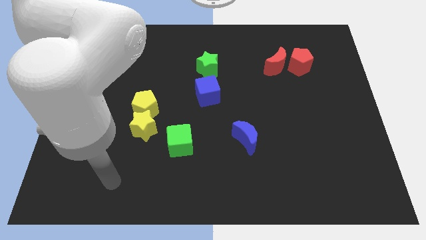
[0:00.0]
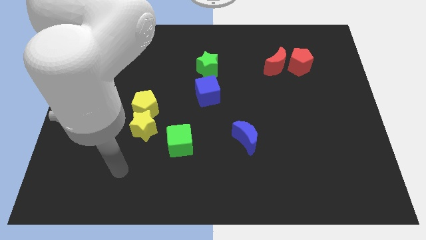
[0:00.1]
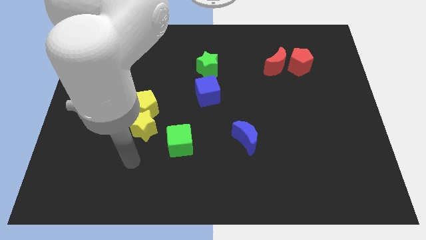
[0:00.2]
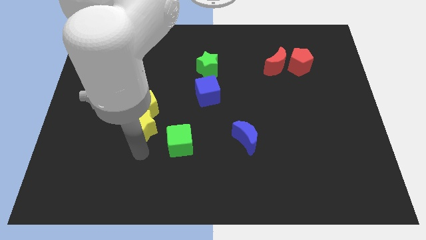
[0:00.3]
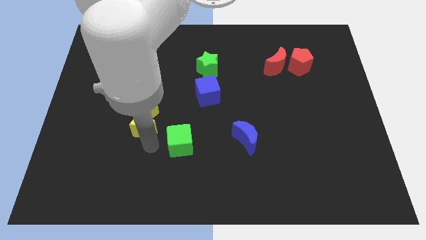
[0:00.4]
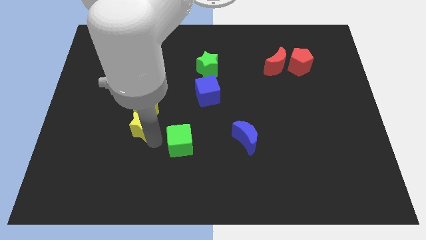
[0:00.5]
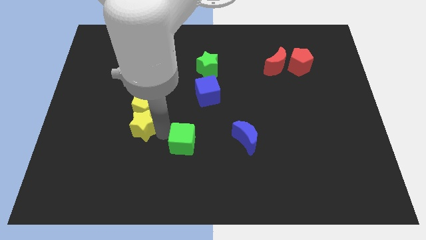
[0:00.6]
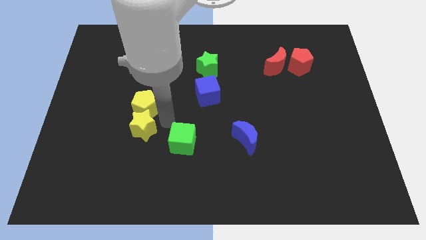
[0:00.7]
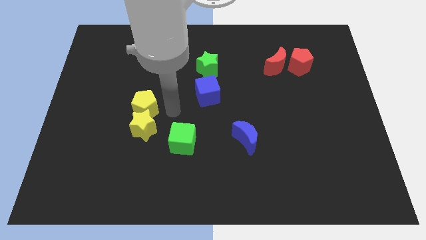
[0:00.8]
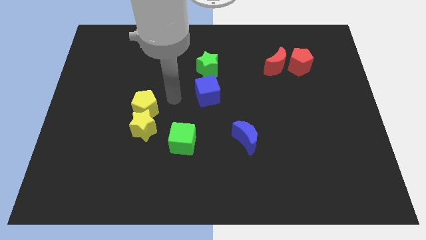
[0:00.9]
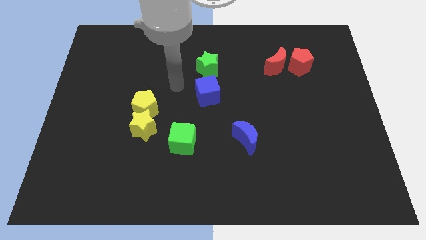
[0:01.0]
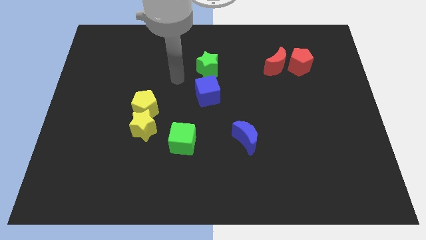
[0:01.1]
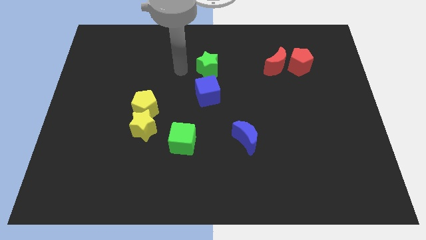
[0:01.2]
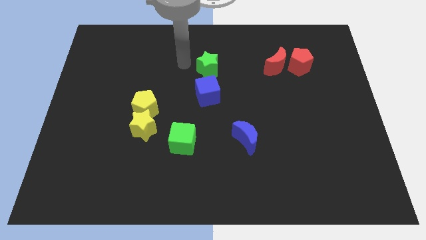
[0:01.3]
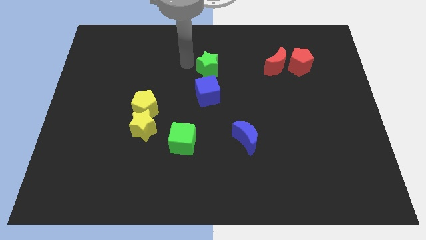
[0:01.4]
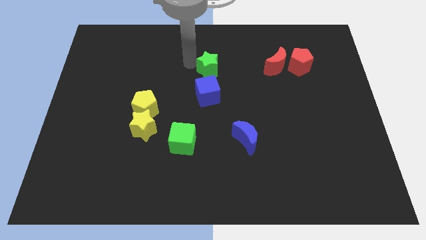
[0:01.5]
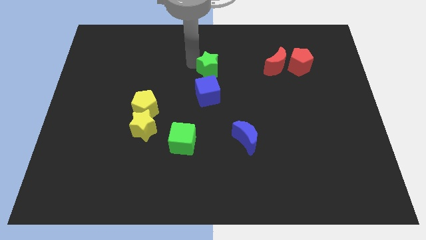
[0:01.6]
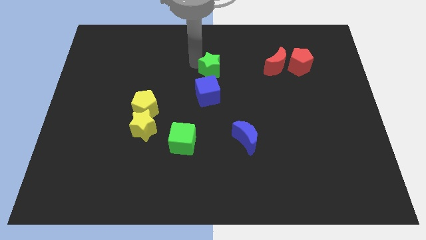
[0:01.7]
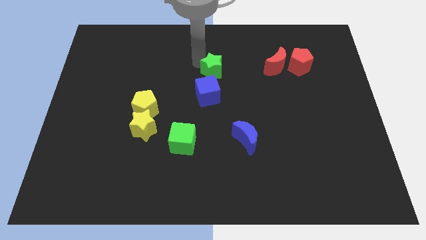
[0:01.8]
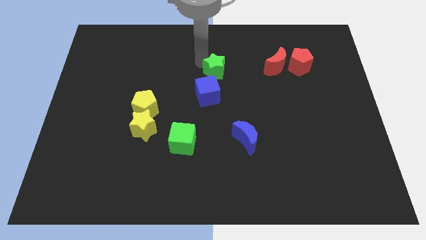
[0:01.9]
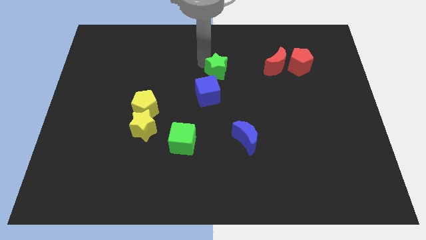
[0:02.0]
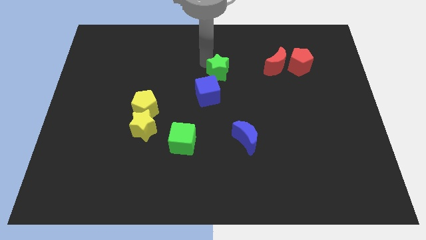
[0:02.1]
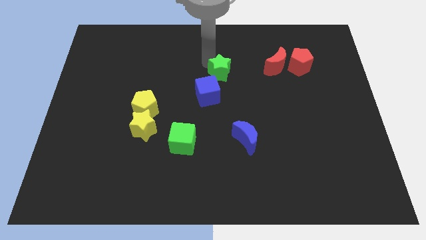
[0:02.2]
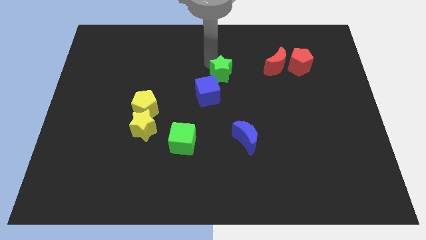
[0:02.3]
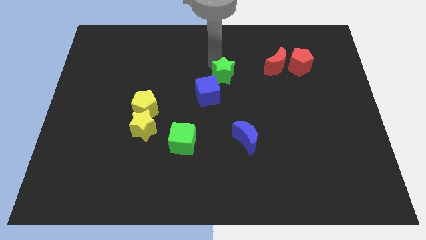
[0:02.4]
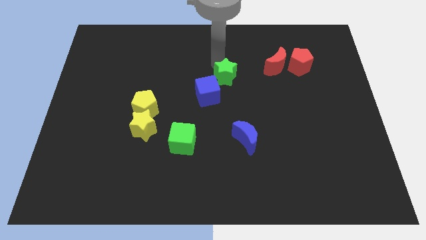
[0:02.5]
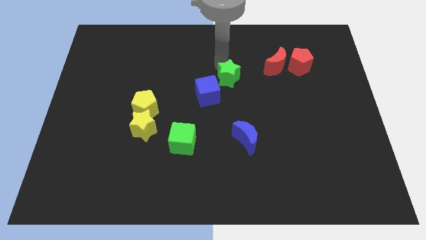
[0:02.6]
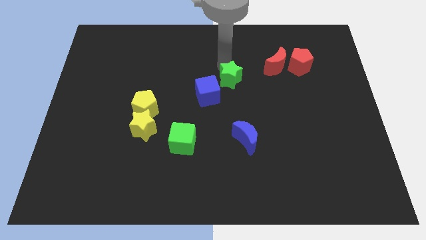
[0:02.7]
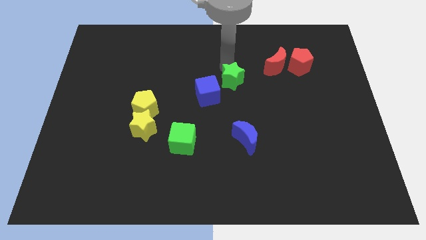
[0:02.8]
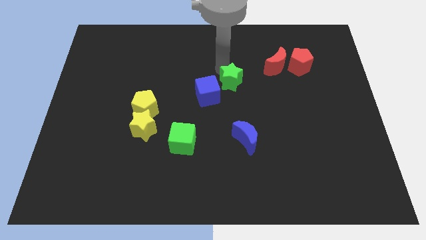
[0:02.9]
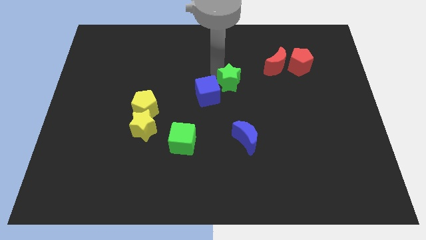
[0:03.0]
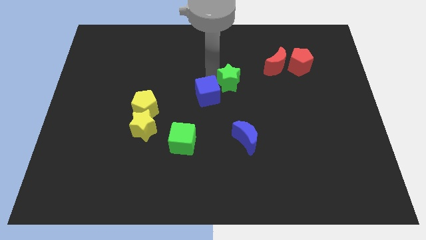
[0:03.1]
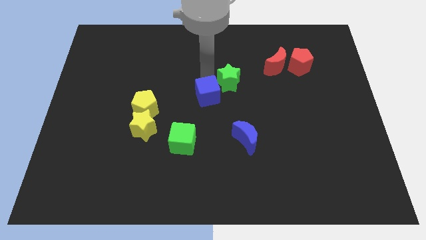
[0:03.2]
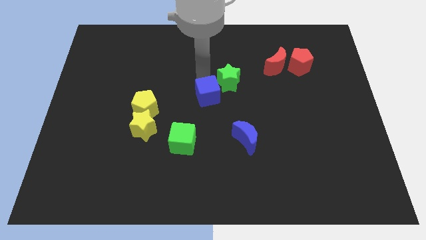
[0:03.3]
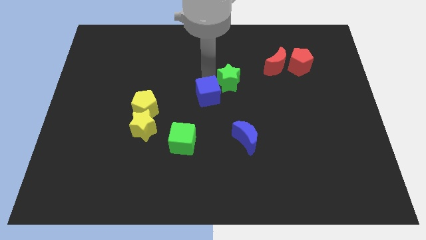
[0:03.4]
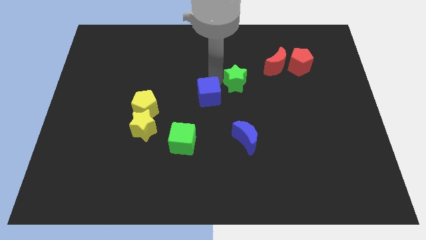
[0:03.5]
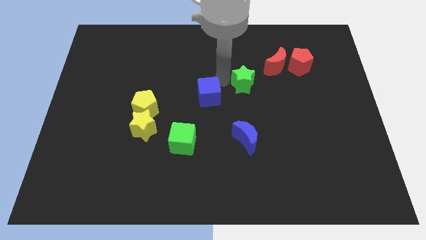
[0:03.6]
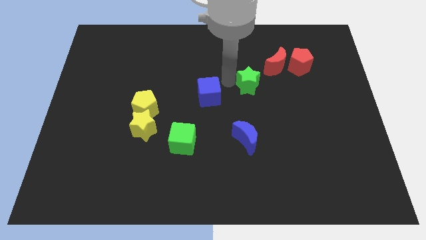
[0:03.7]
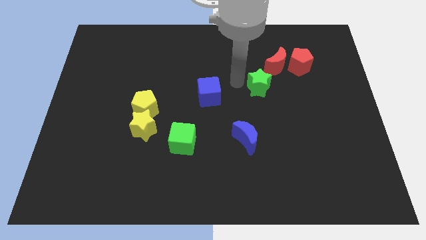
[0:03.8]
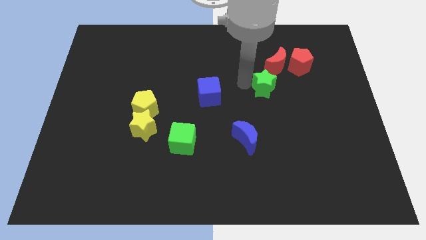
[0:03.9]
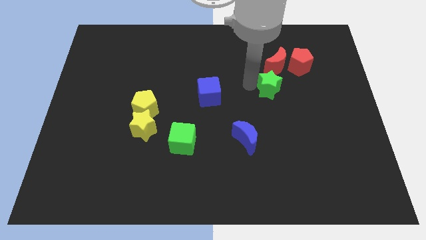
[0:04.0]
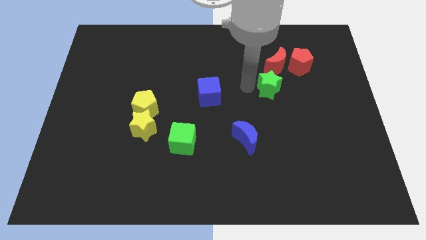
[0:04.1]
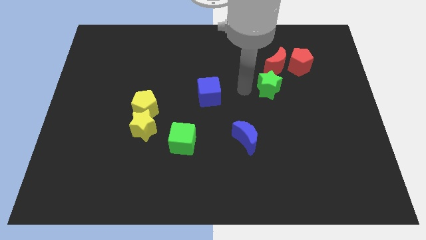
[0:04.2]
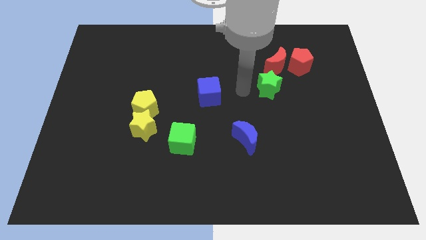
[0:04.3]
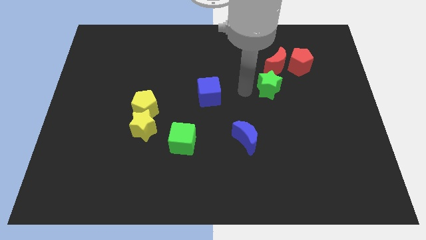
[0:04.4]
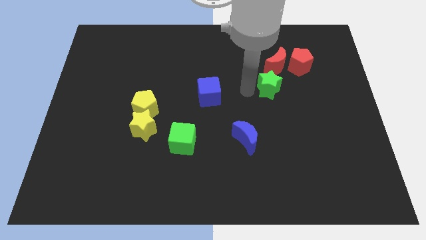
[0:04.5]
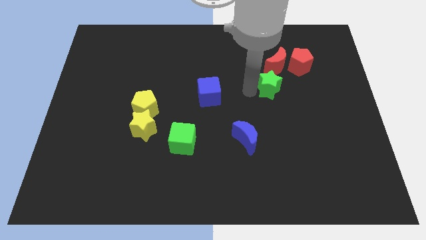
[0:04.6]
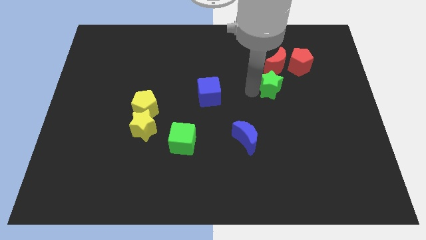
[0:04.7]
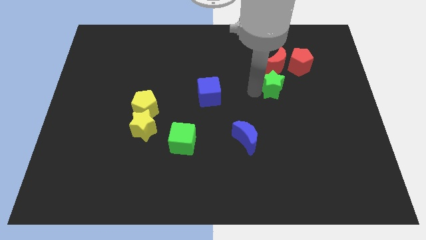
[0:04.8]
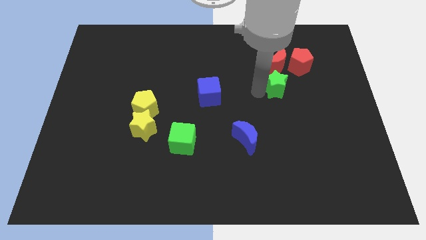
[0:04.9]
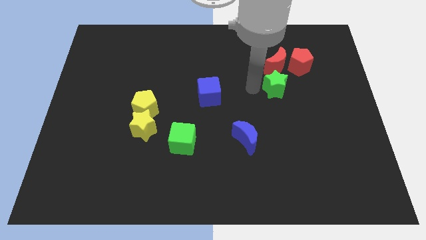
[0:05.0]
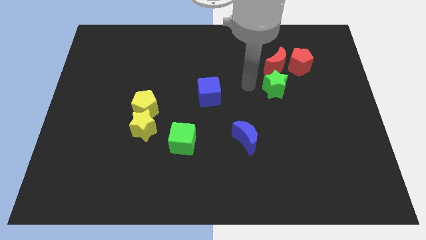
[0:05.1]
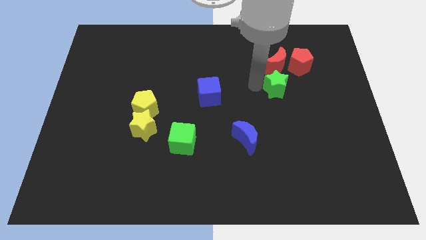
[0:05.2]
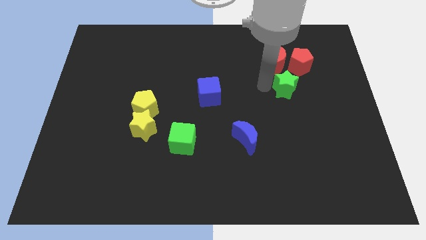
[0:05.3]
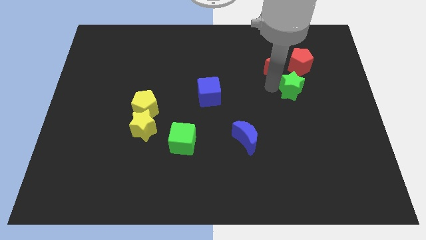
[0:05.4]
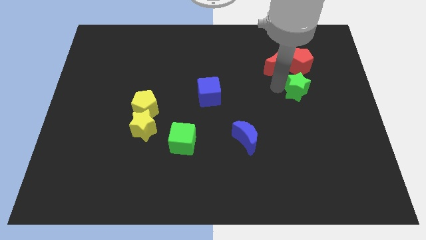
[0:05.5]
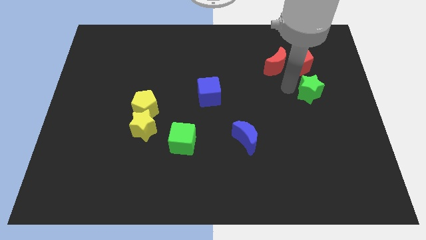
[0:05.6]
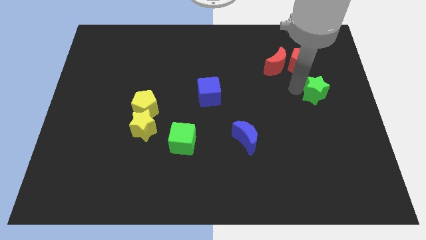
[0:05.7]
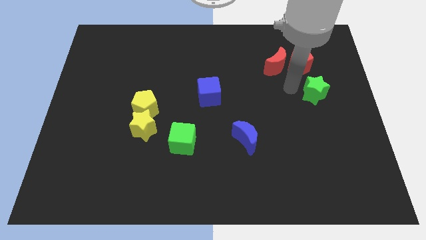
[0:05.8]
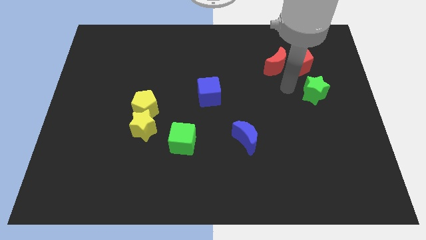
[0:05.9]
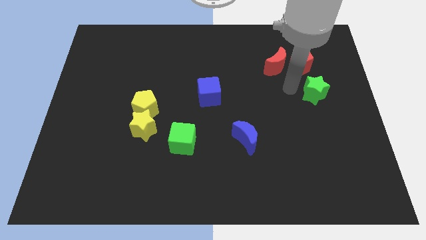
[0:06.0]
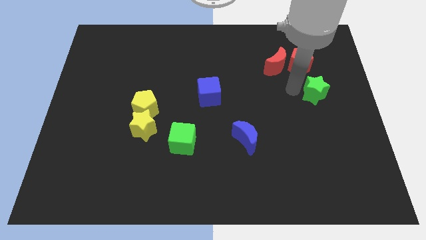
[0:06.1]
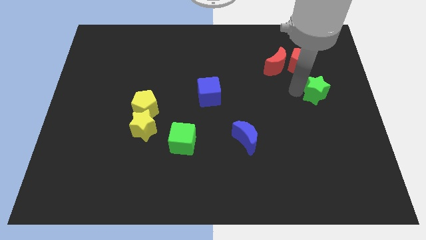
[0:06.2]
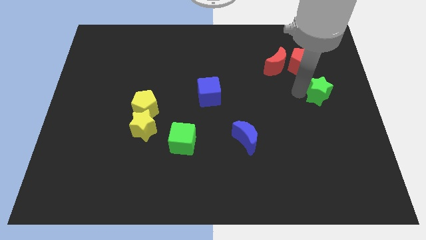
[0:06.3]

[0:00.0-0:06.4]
move the green star to the right side

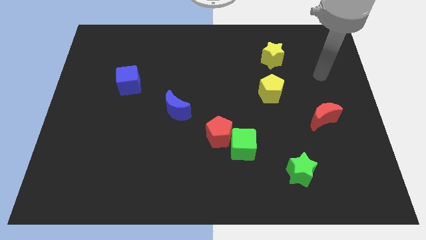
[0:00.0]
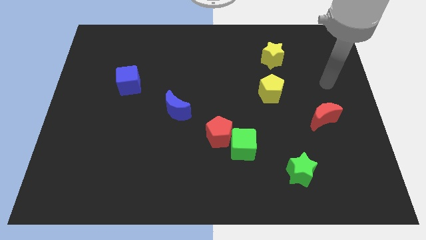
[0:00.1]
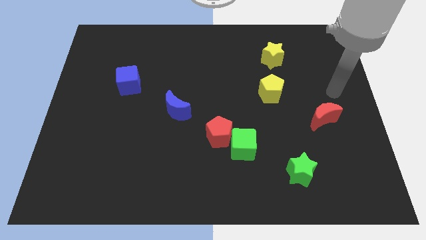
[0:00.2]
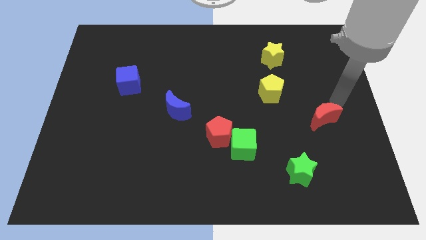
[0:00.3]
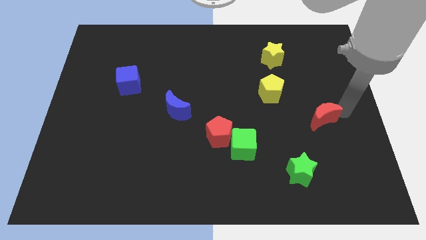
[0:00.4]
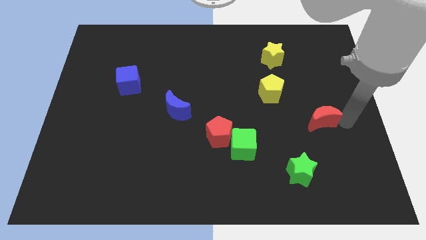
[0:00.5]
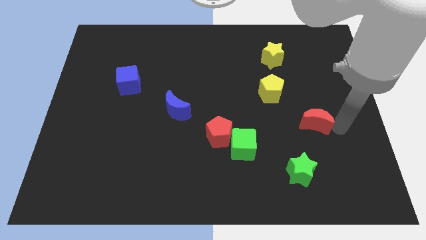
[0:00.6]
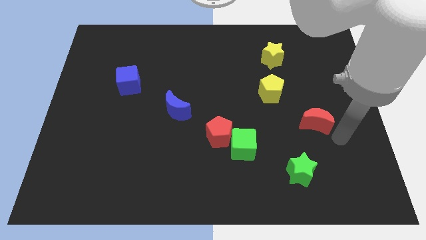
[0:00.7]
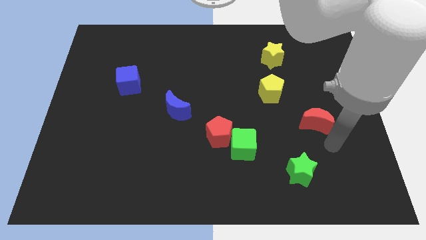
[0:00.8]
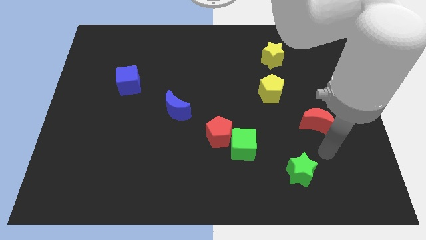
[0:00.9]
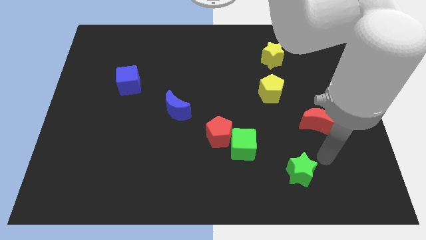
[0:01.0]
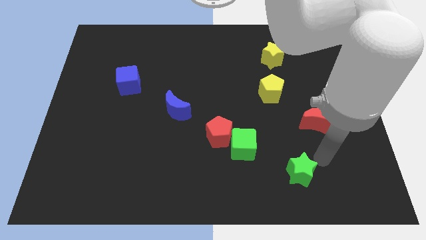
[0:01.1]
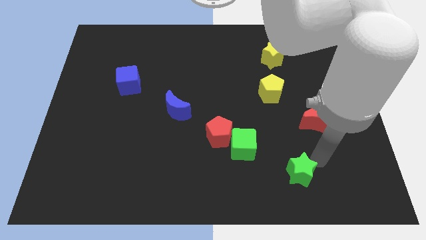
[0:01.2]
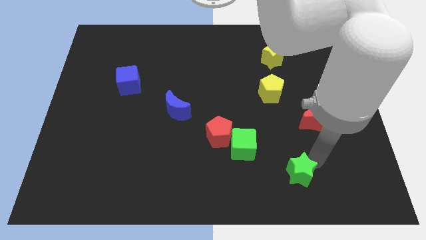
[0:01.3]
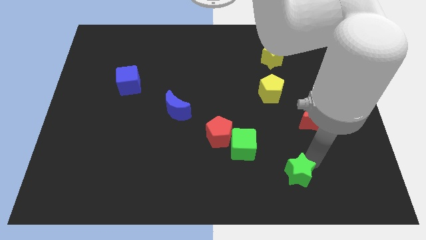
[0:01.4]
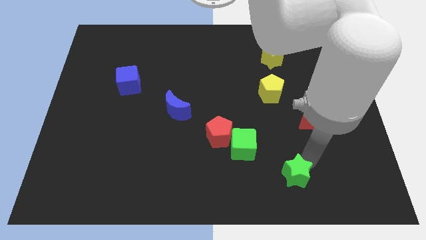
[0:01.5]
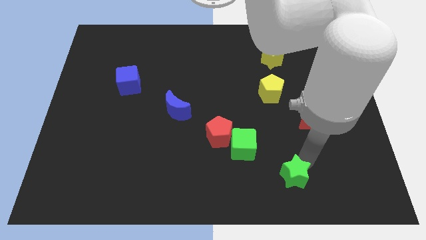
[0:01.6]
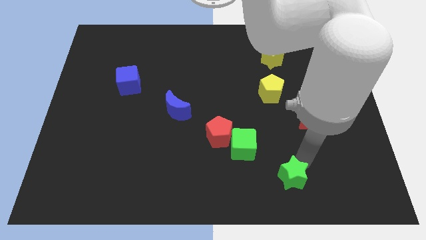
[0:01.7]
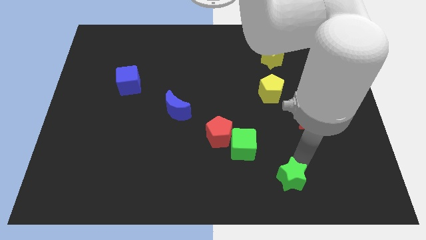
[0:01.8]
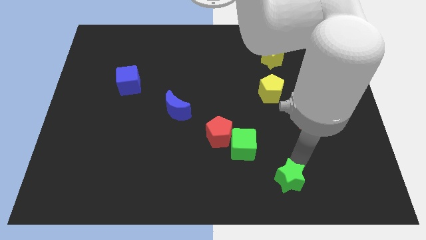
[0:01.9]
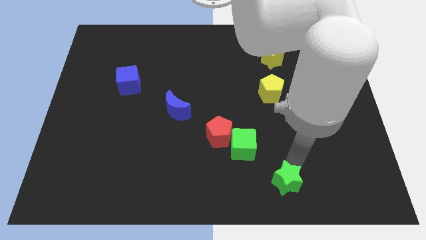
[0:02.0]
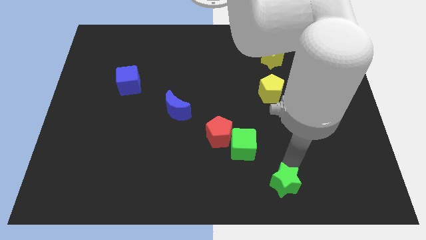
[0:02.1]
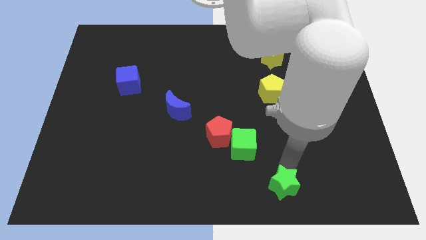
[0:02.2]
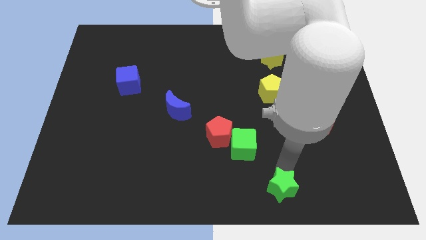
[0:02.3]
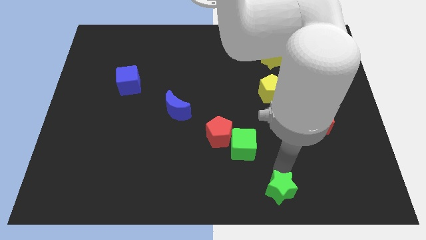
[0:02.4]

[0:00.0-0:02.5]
slide the green star to the bottom
